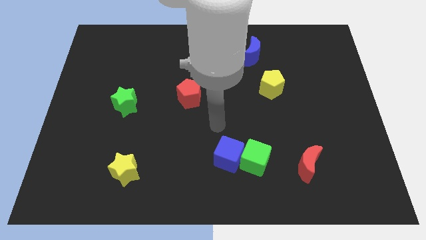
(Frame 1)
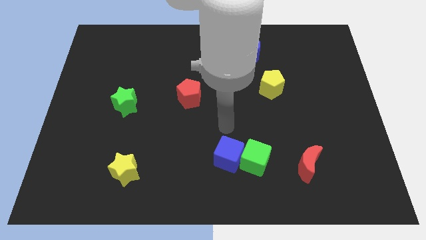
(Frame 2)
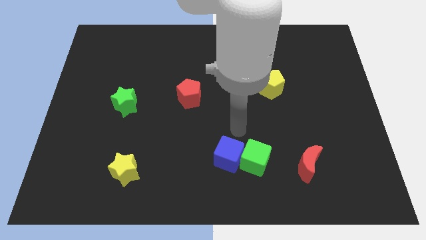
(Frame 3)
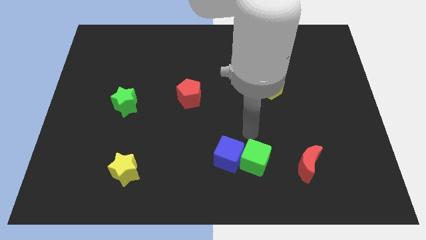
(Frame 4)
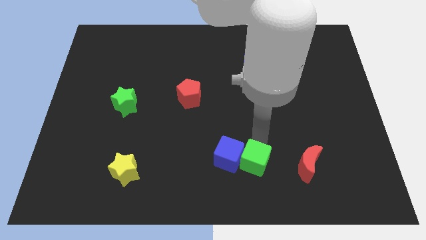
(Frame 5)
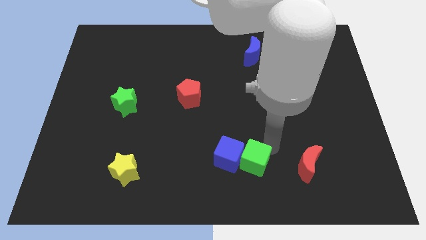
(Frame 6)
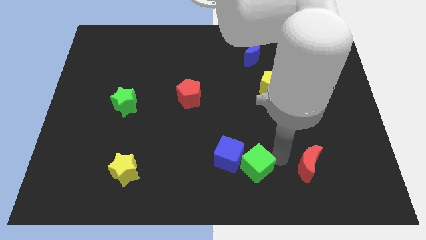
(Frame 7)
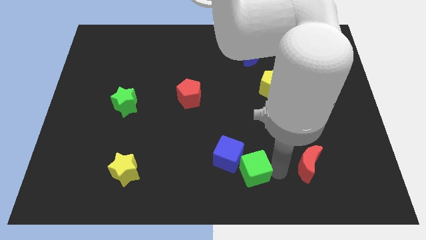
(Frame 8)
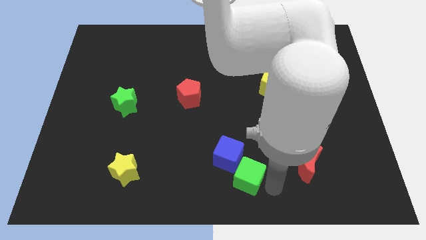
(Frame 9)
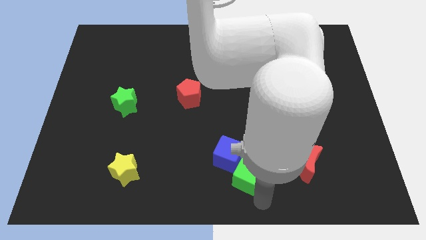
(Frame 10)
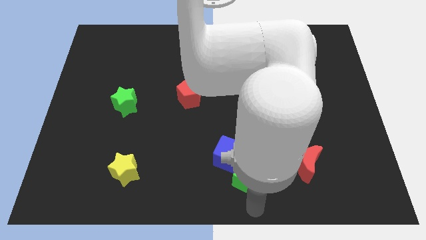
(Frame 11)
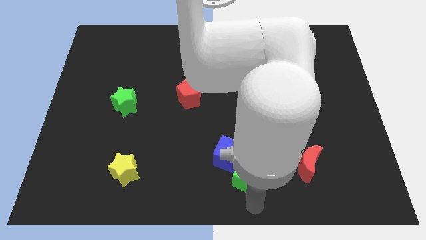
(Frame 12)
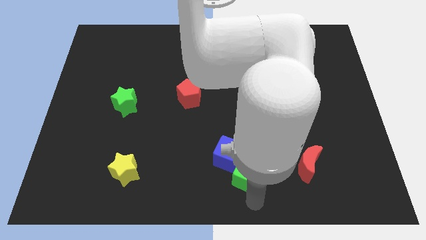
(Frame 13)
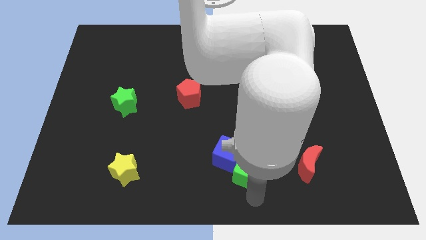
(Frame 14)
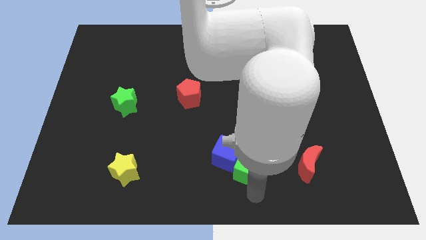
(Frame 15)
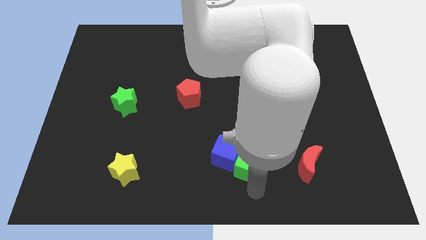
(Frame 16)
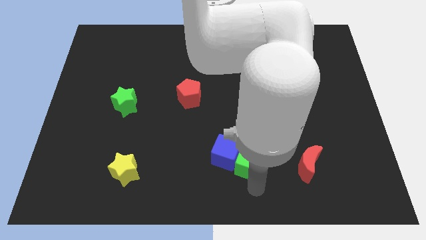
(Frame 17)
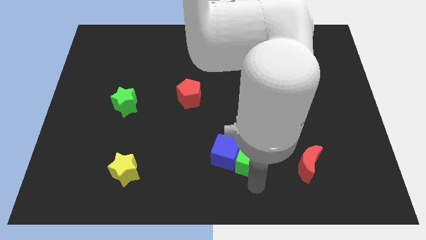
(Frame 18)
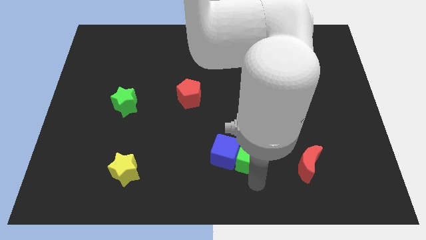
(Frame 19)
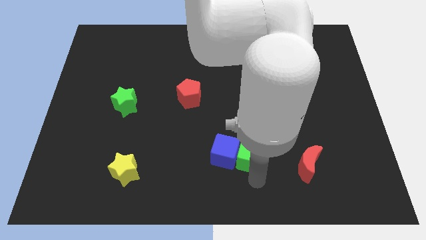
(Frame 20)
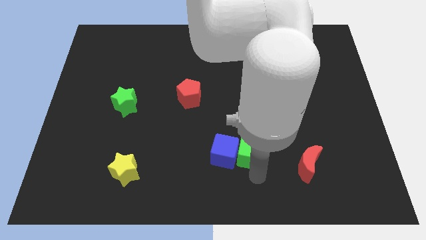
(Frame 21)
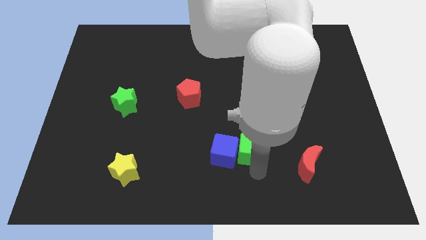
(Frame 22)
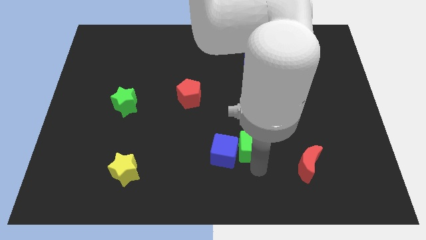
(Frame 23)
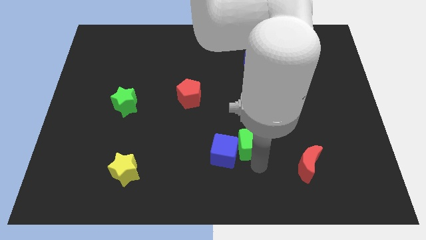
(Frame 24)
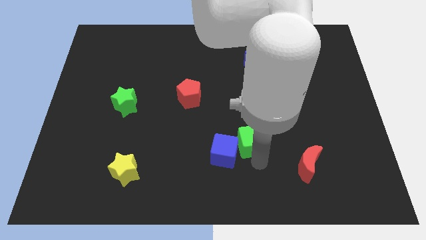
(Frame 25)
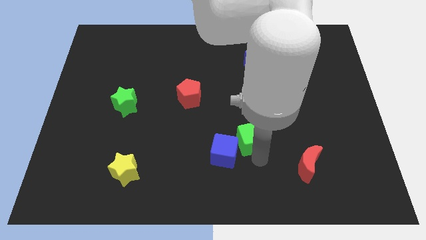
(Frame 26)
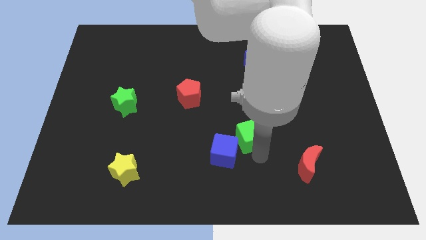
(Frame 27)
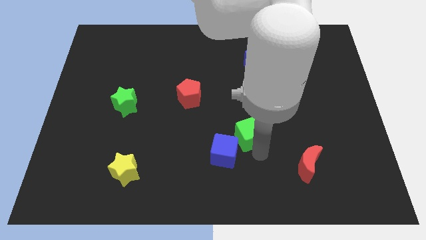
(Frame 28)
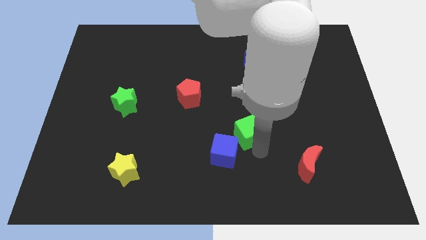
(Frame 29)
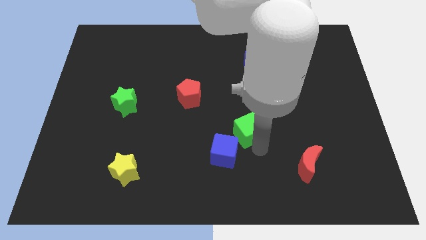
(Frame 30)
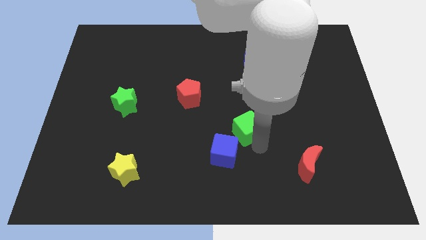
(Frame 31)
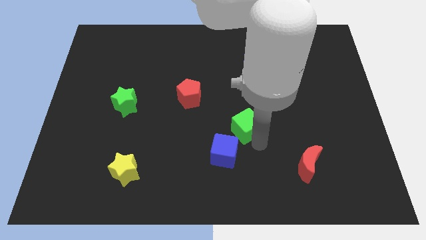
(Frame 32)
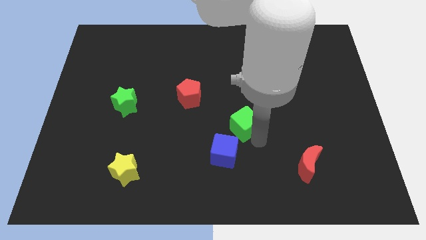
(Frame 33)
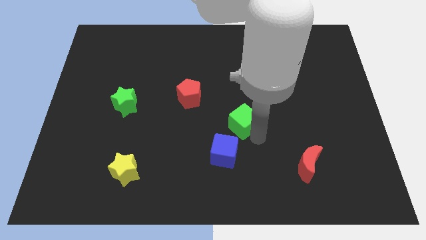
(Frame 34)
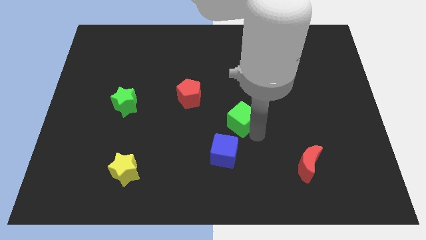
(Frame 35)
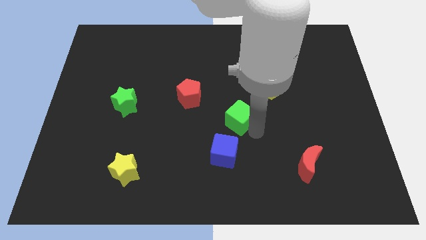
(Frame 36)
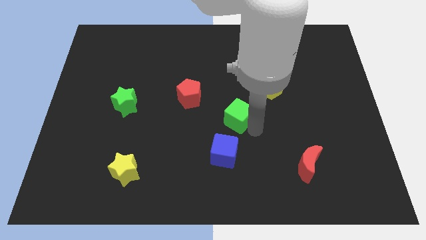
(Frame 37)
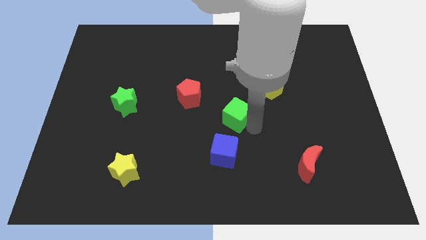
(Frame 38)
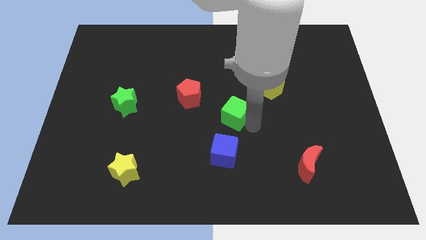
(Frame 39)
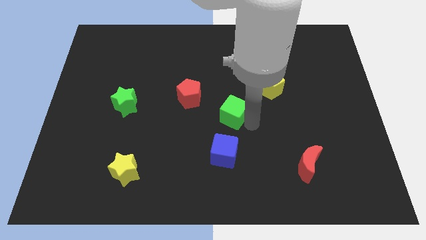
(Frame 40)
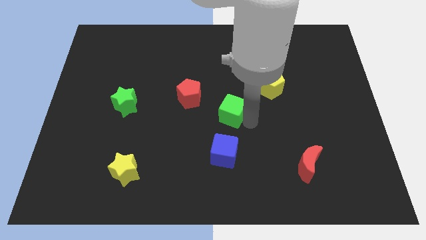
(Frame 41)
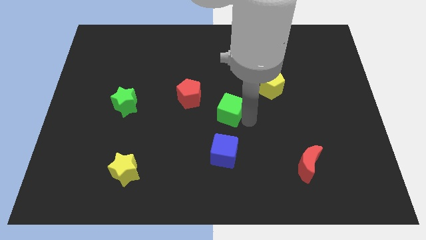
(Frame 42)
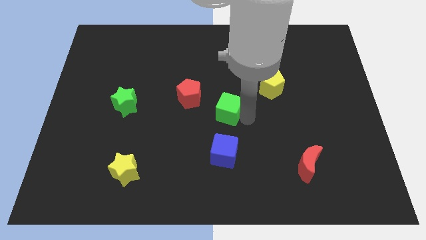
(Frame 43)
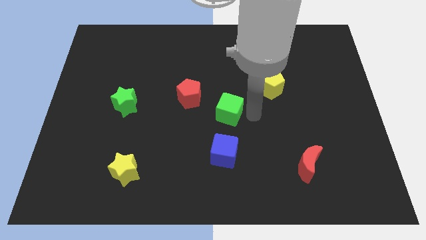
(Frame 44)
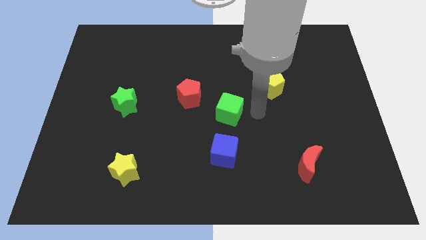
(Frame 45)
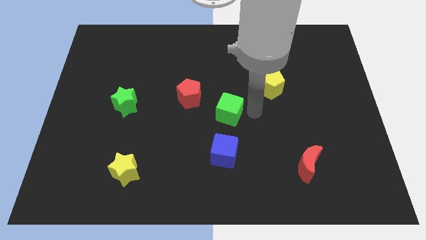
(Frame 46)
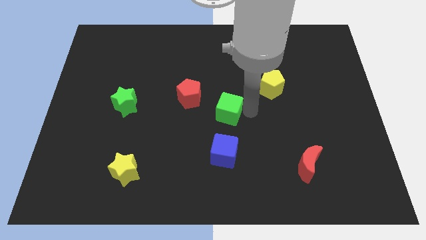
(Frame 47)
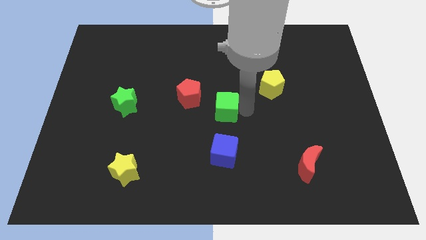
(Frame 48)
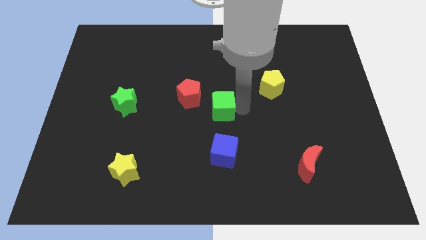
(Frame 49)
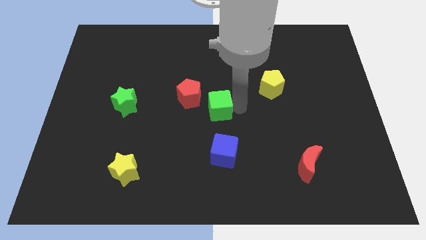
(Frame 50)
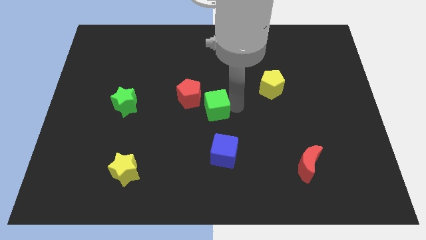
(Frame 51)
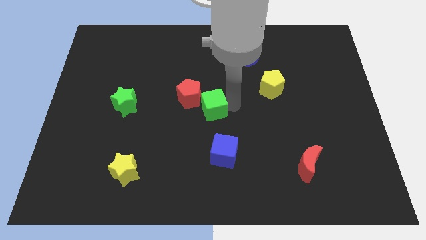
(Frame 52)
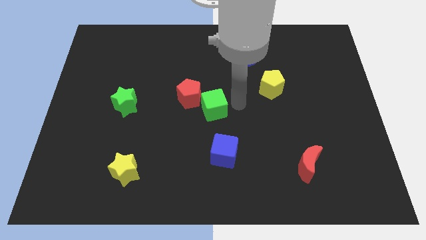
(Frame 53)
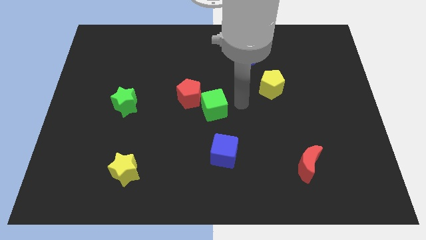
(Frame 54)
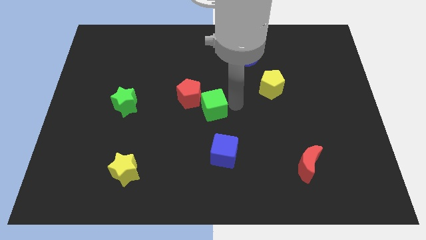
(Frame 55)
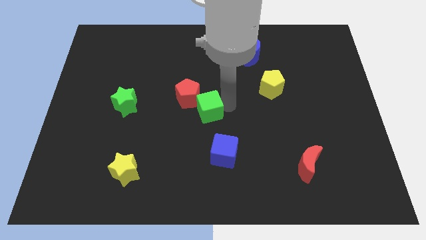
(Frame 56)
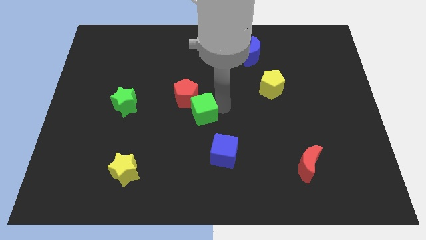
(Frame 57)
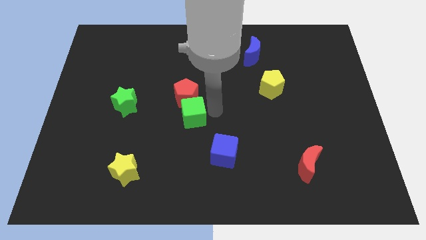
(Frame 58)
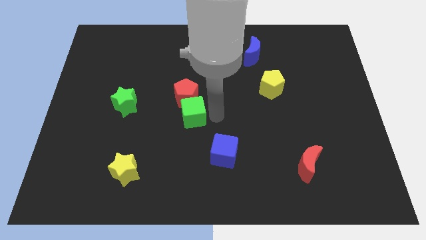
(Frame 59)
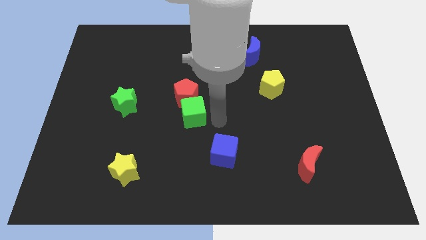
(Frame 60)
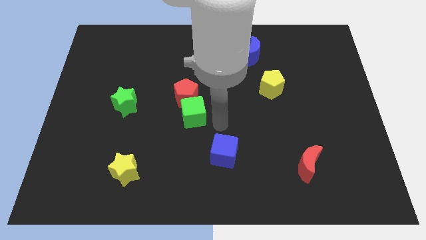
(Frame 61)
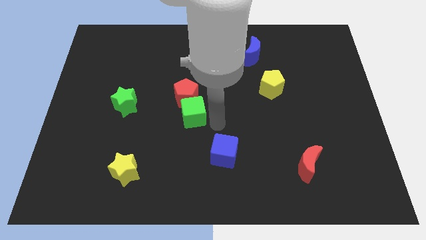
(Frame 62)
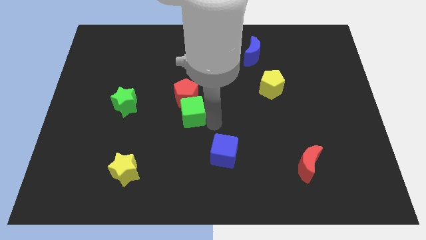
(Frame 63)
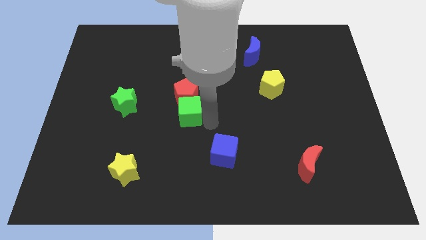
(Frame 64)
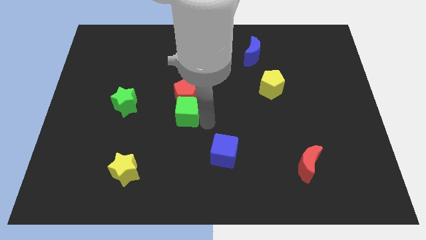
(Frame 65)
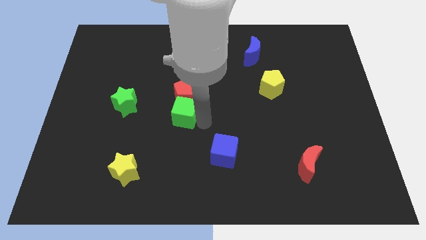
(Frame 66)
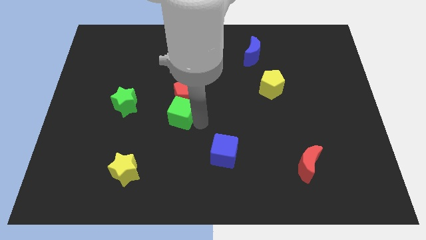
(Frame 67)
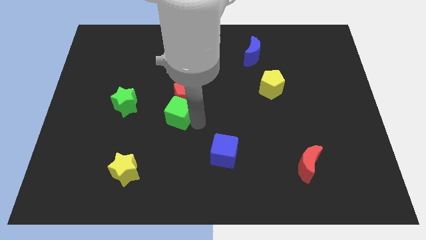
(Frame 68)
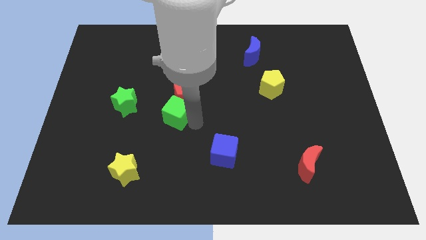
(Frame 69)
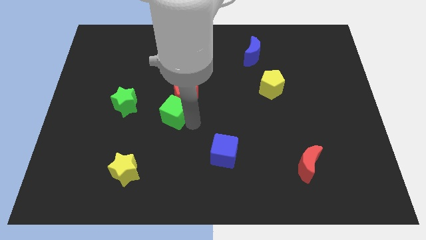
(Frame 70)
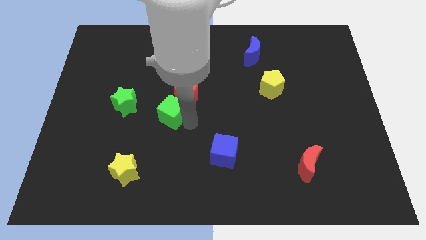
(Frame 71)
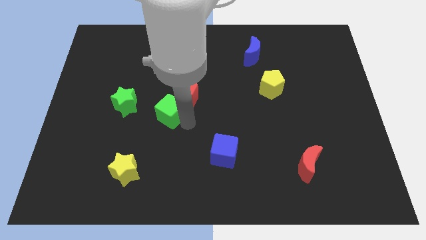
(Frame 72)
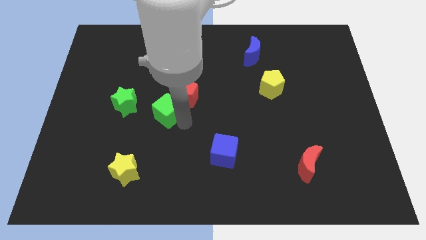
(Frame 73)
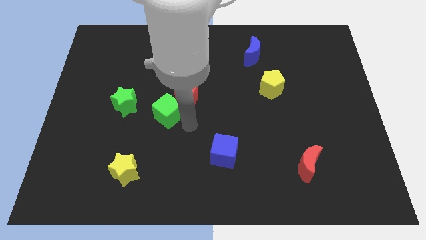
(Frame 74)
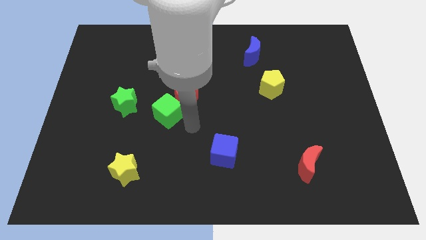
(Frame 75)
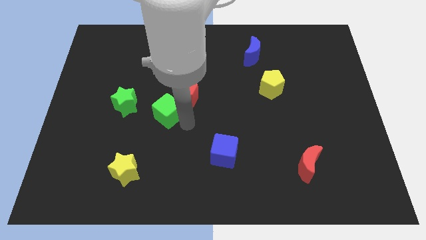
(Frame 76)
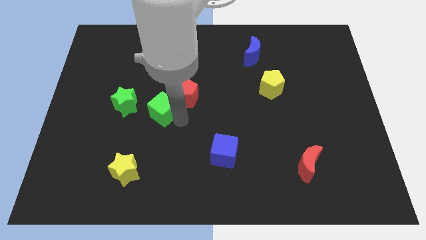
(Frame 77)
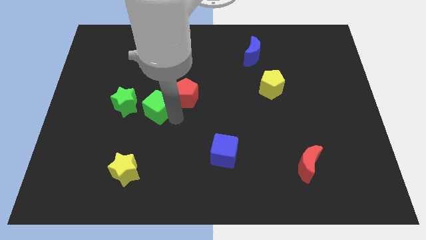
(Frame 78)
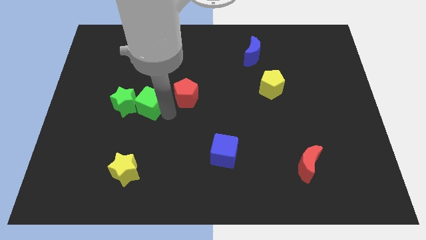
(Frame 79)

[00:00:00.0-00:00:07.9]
move the green cube close to the green star
